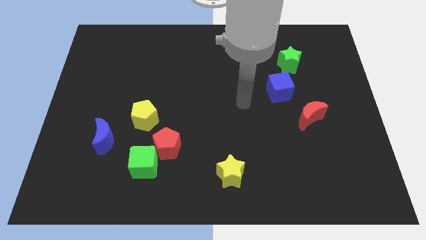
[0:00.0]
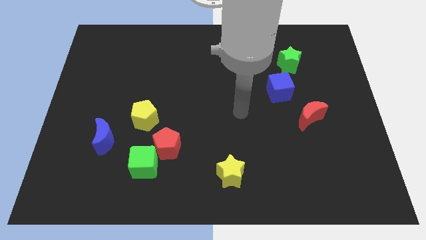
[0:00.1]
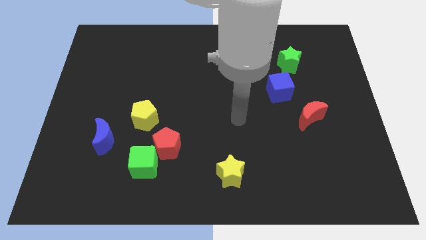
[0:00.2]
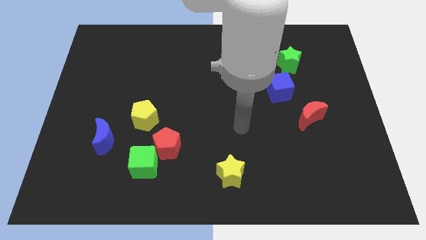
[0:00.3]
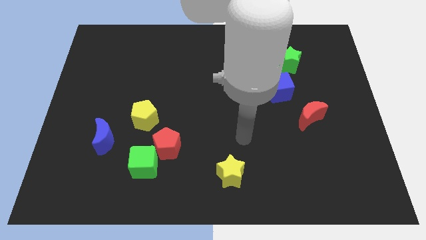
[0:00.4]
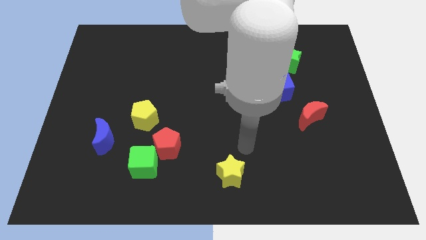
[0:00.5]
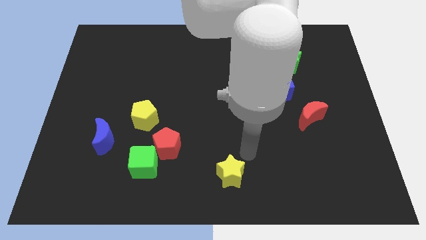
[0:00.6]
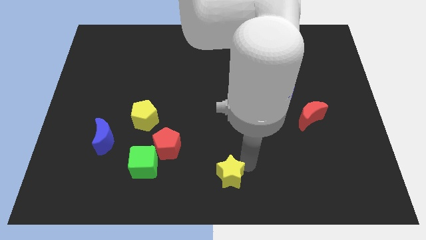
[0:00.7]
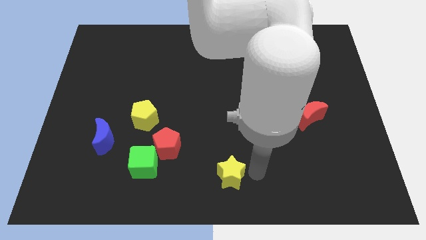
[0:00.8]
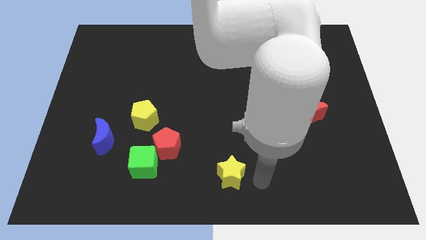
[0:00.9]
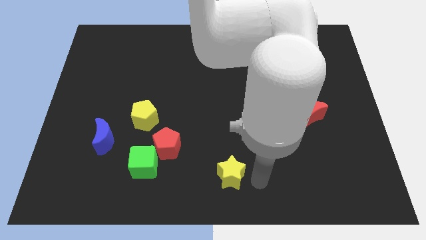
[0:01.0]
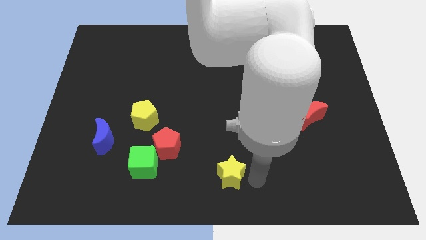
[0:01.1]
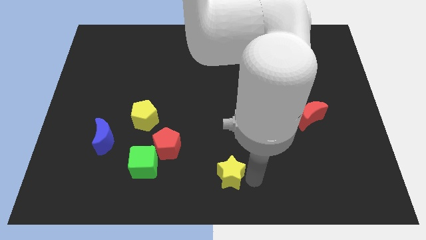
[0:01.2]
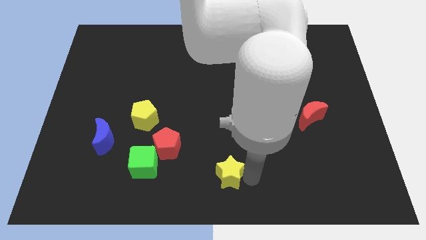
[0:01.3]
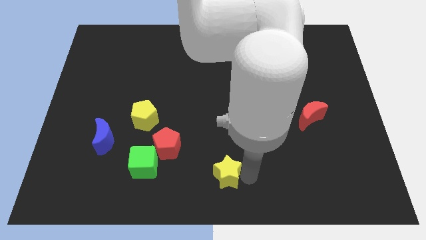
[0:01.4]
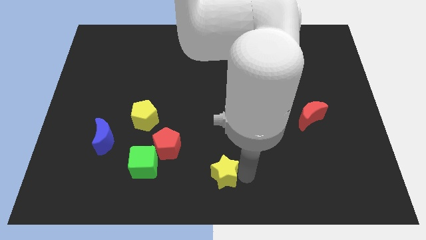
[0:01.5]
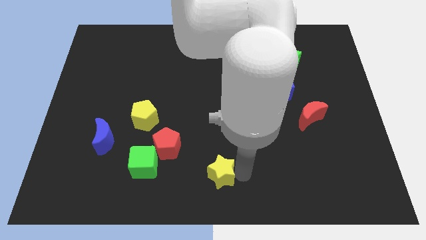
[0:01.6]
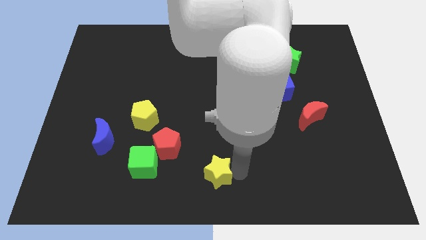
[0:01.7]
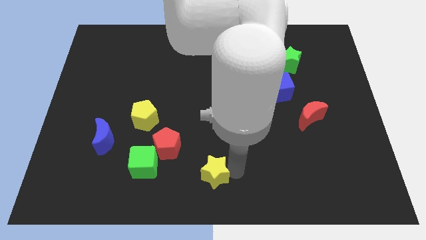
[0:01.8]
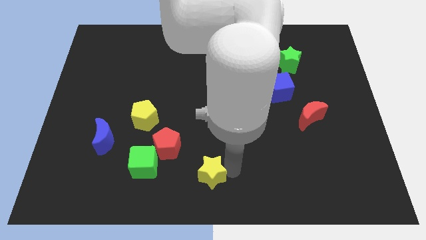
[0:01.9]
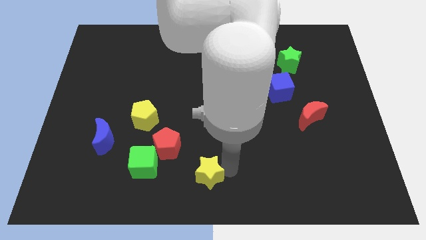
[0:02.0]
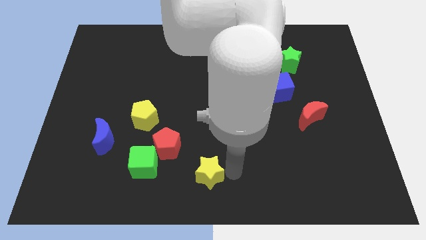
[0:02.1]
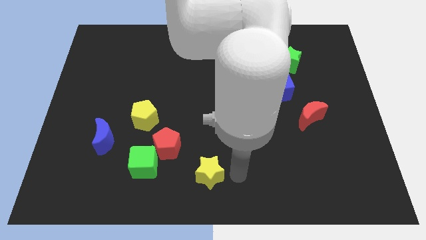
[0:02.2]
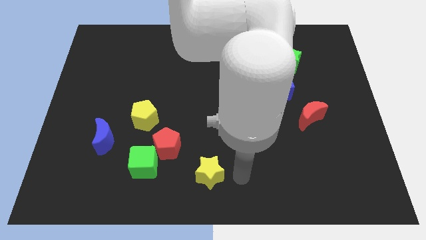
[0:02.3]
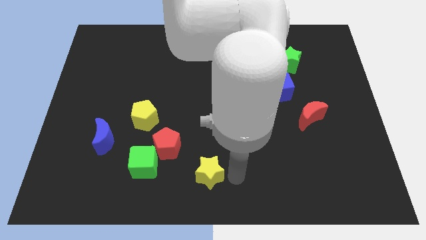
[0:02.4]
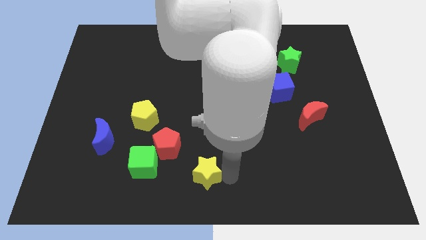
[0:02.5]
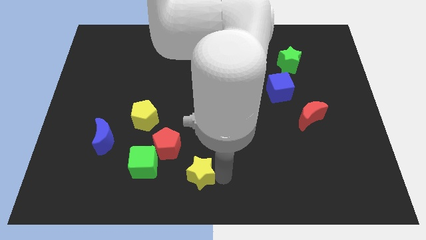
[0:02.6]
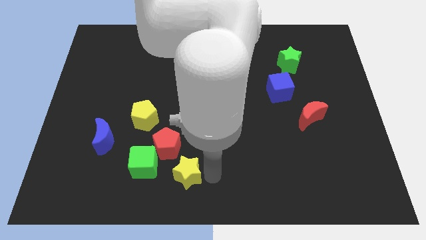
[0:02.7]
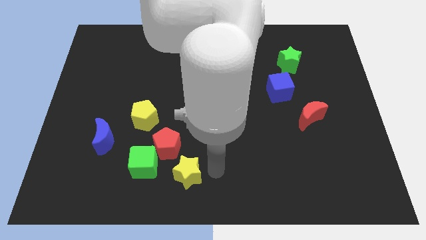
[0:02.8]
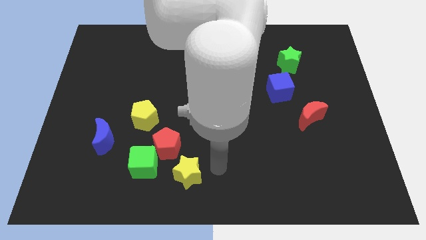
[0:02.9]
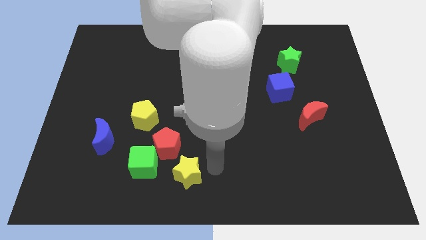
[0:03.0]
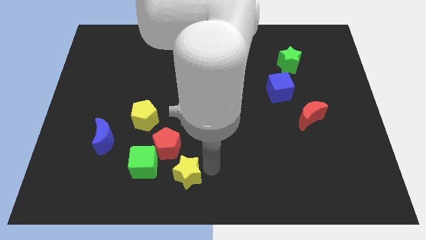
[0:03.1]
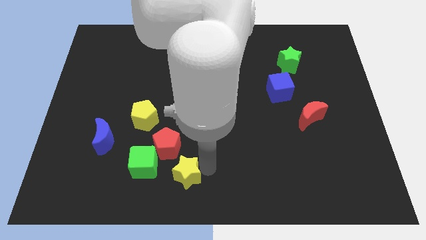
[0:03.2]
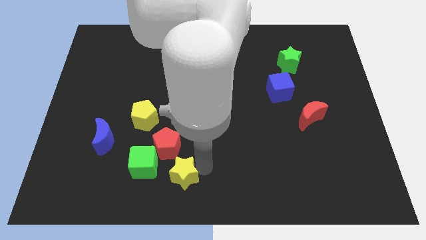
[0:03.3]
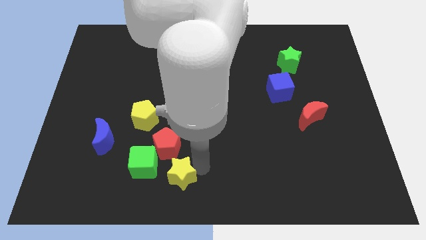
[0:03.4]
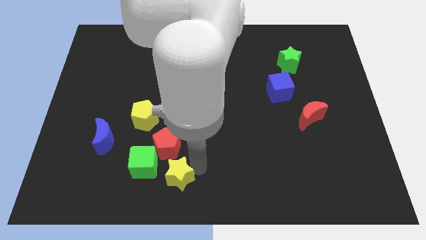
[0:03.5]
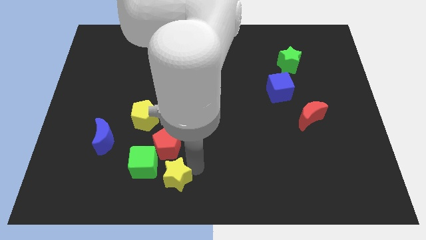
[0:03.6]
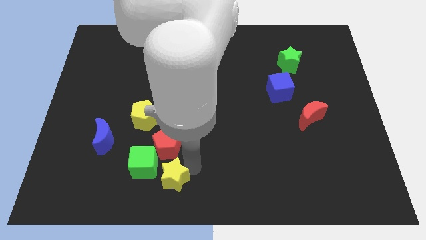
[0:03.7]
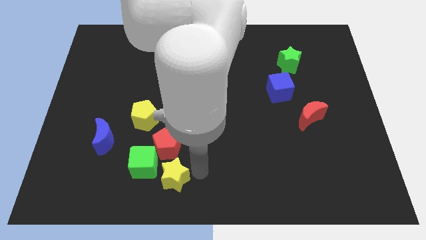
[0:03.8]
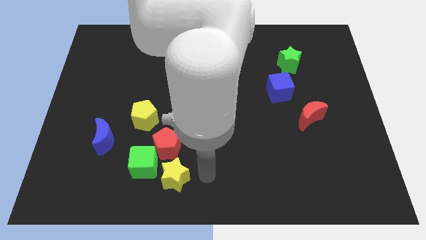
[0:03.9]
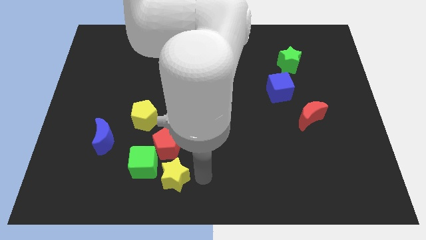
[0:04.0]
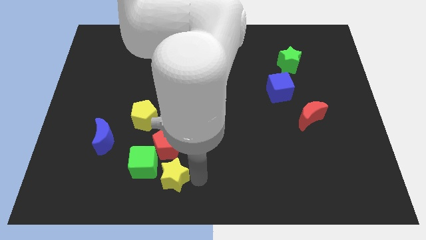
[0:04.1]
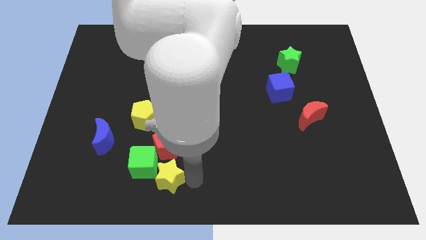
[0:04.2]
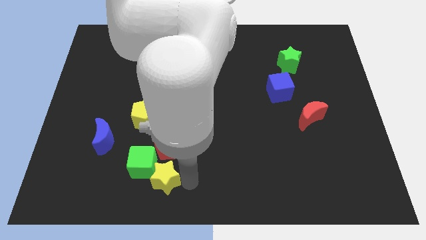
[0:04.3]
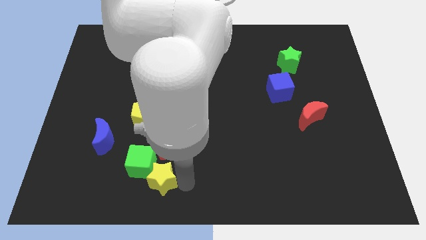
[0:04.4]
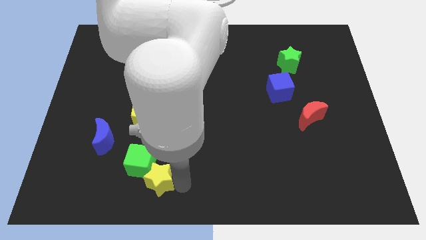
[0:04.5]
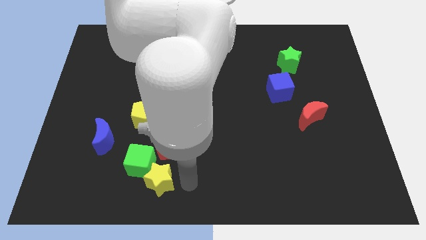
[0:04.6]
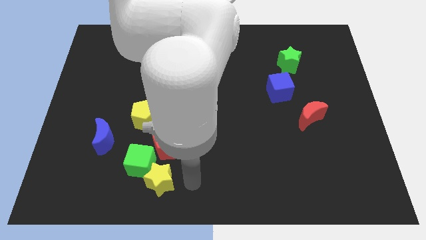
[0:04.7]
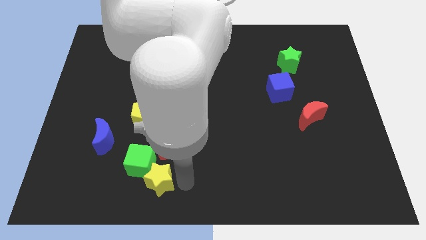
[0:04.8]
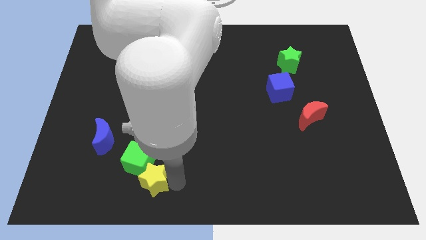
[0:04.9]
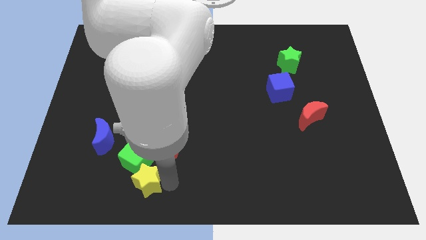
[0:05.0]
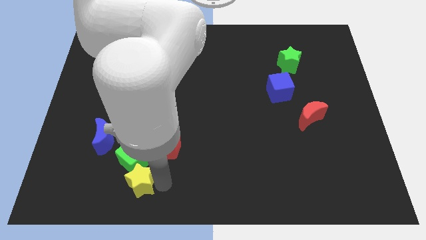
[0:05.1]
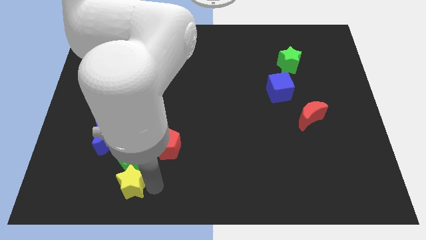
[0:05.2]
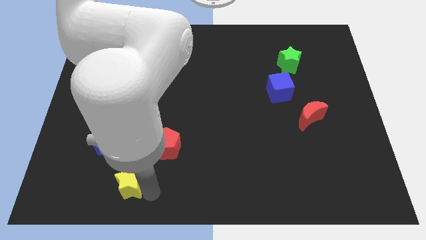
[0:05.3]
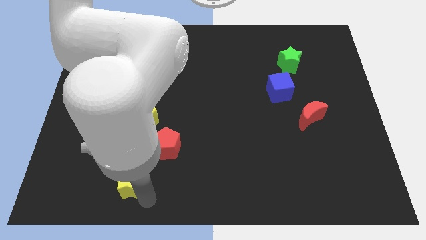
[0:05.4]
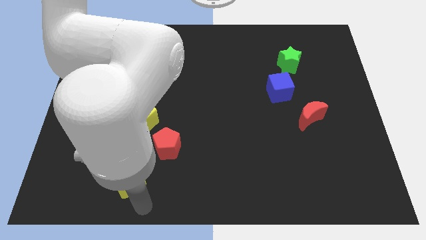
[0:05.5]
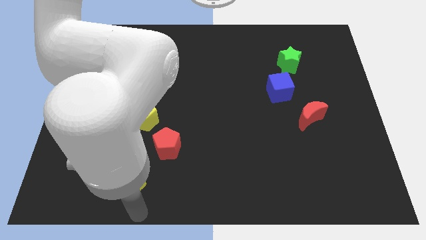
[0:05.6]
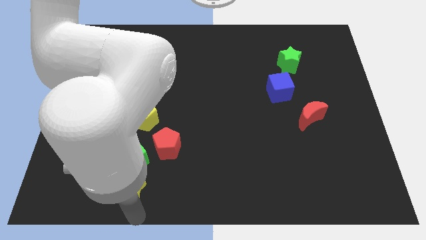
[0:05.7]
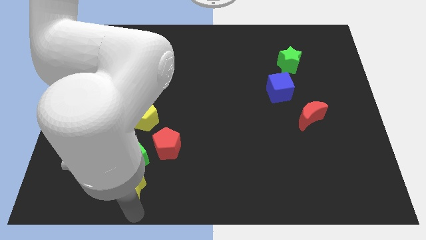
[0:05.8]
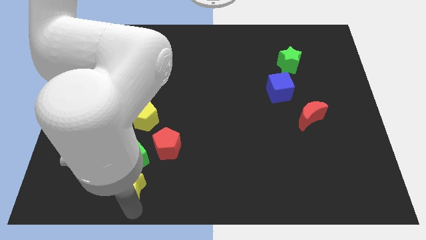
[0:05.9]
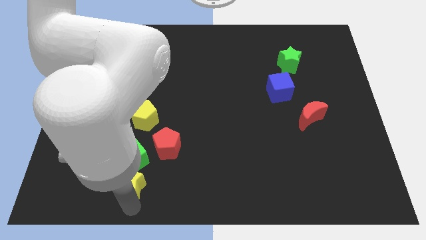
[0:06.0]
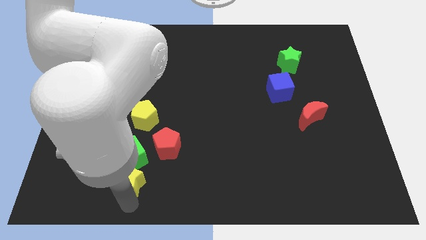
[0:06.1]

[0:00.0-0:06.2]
push the yellow star to the bottom right side of the blue moon

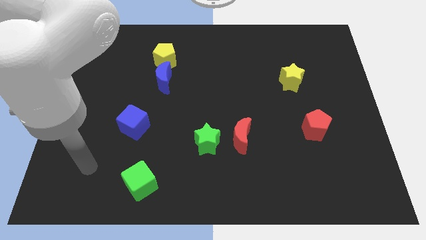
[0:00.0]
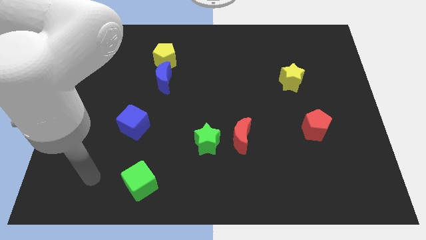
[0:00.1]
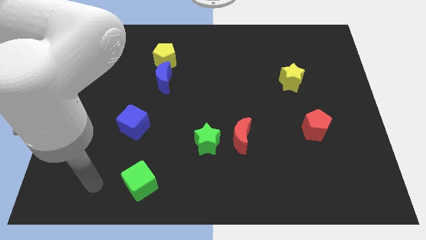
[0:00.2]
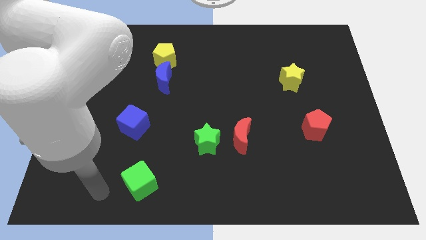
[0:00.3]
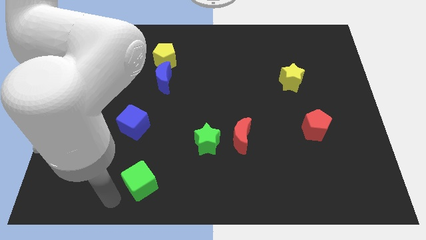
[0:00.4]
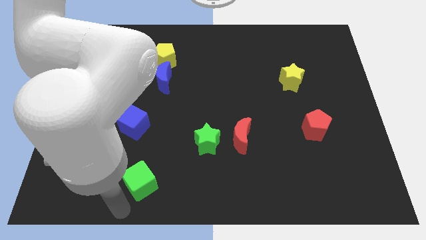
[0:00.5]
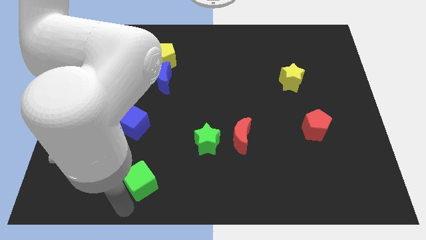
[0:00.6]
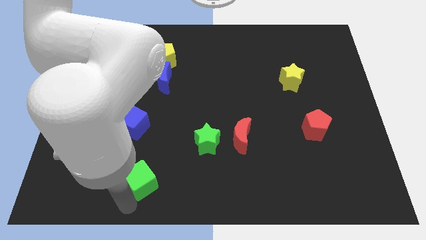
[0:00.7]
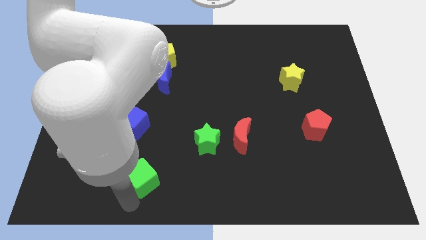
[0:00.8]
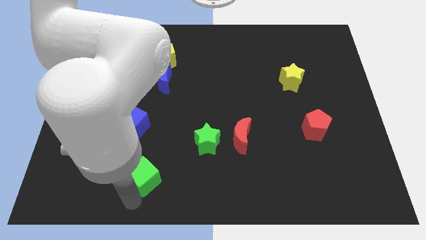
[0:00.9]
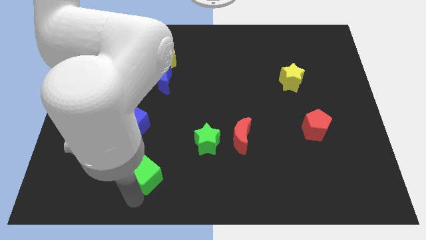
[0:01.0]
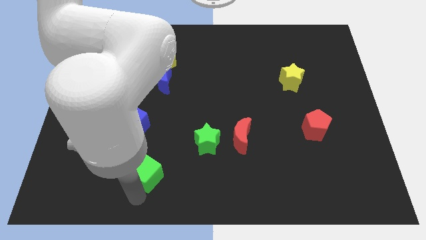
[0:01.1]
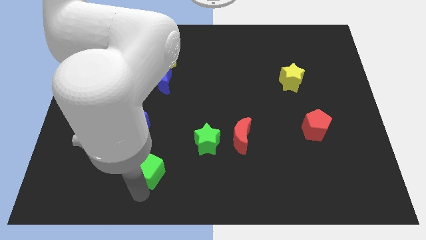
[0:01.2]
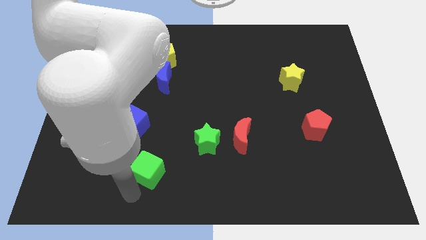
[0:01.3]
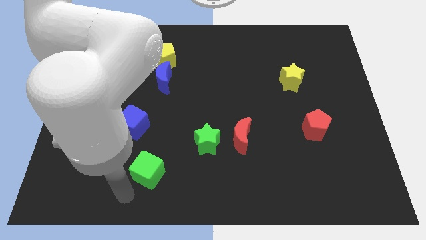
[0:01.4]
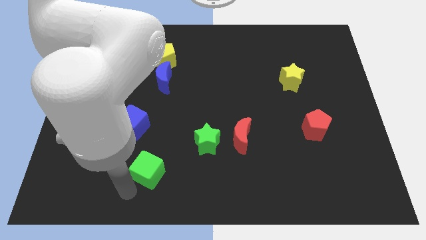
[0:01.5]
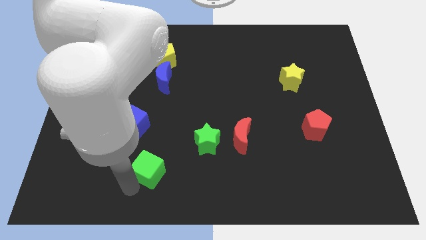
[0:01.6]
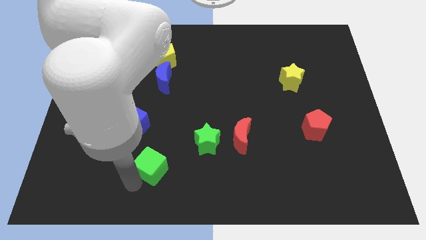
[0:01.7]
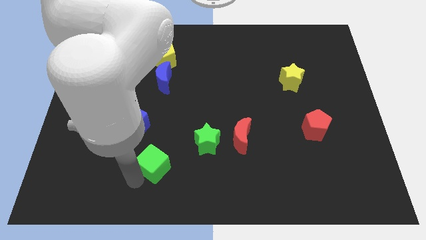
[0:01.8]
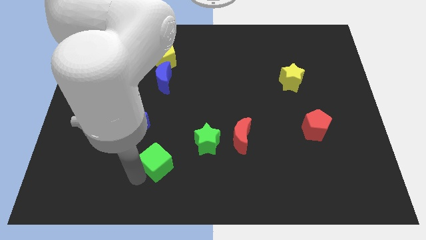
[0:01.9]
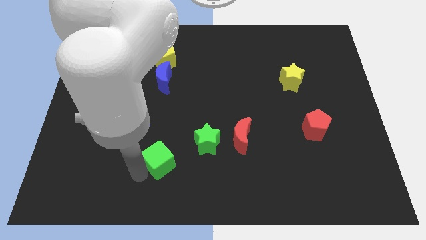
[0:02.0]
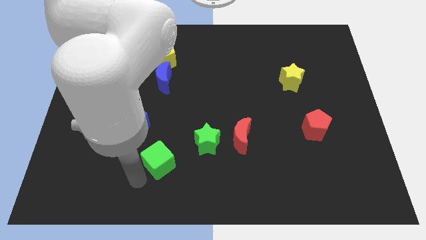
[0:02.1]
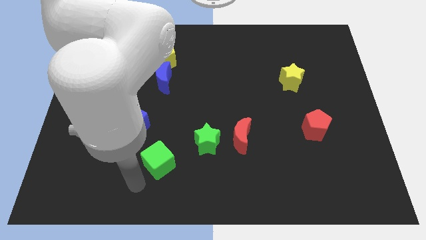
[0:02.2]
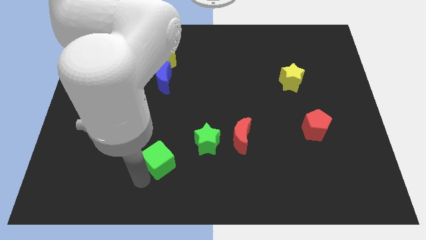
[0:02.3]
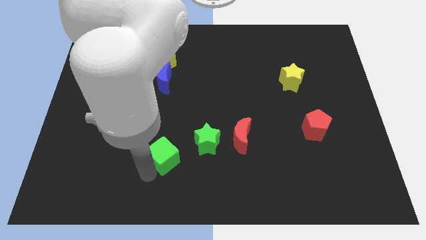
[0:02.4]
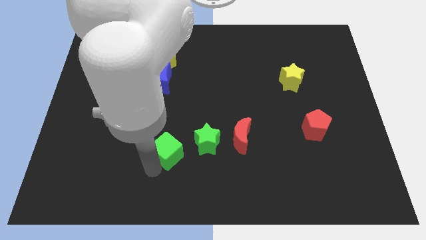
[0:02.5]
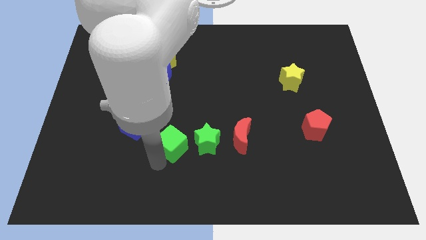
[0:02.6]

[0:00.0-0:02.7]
move the green cube left of the red moon

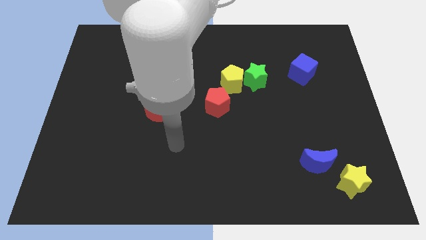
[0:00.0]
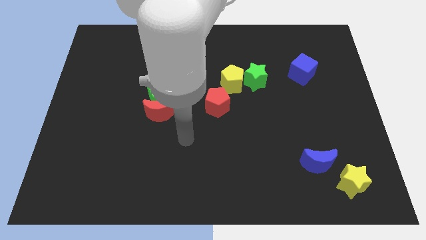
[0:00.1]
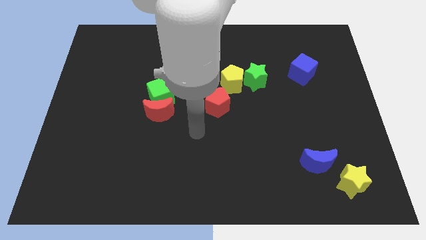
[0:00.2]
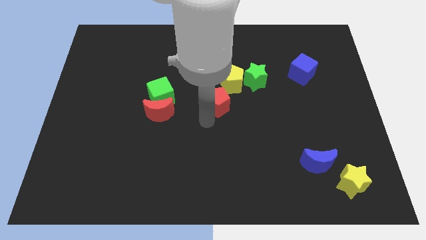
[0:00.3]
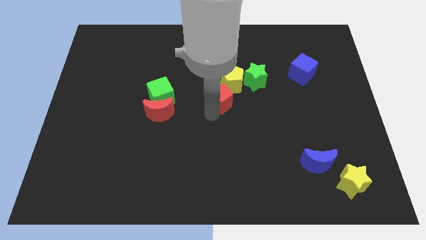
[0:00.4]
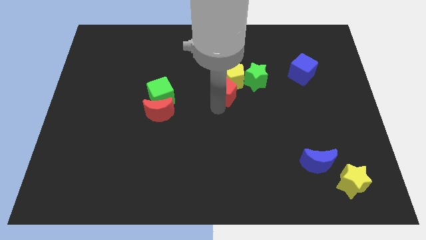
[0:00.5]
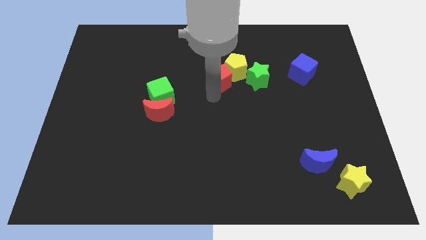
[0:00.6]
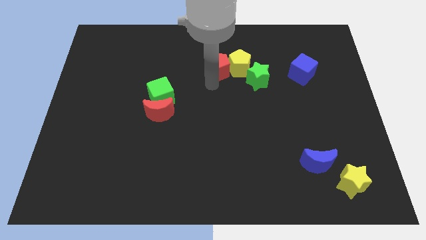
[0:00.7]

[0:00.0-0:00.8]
move the yellow pentagon just left of the blue cube
